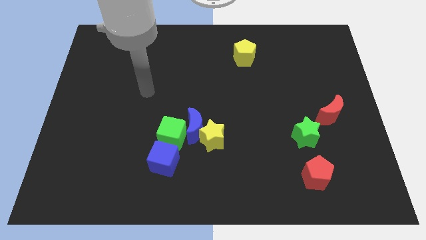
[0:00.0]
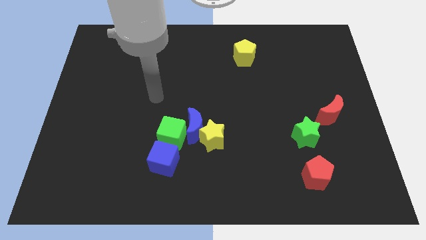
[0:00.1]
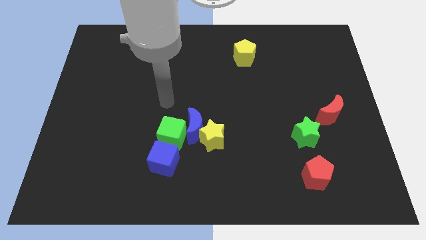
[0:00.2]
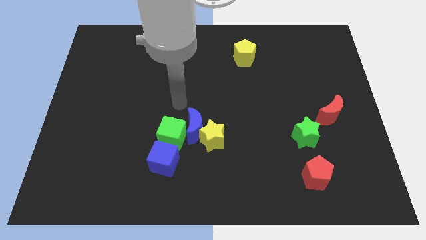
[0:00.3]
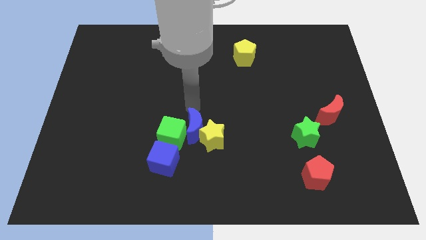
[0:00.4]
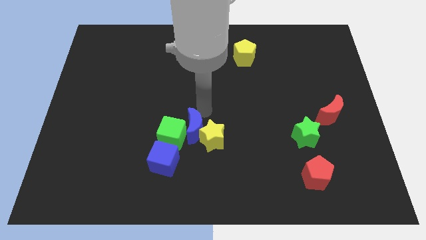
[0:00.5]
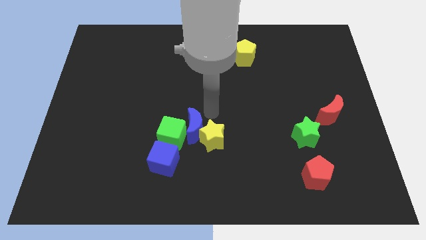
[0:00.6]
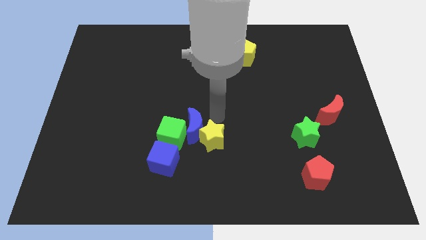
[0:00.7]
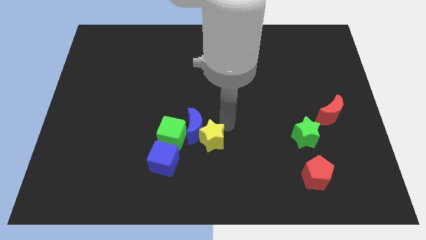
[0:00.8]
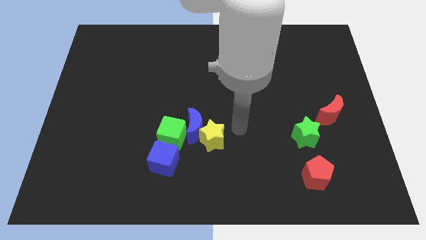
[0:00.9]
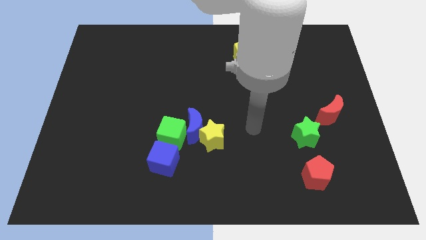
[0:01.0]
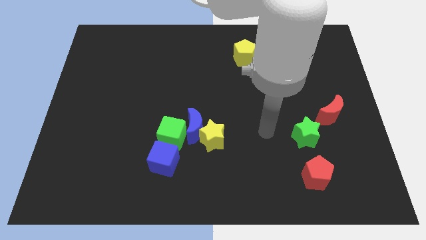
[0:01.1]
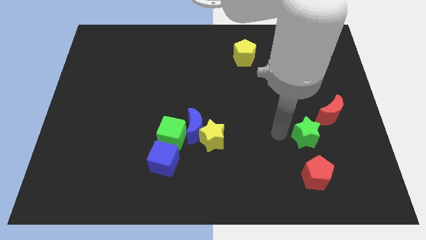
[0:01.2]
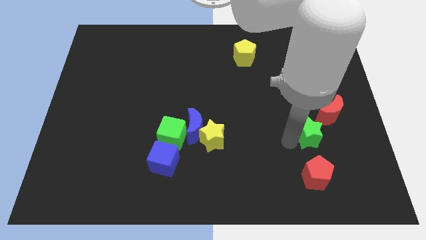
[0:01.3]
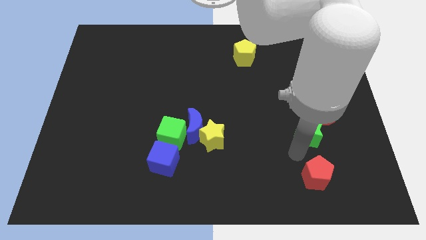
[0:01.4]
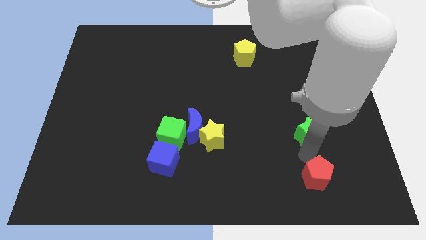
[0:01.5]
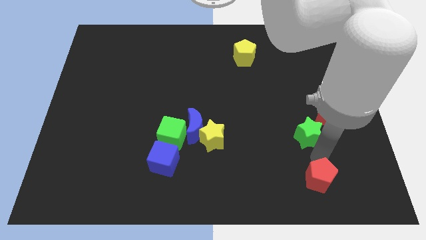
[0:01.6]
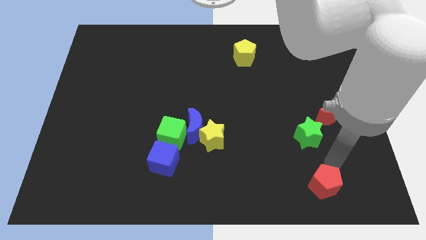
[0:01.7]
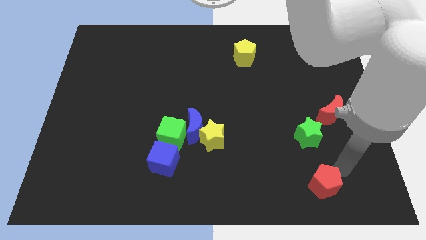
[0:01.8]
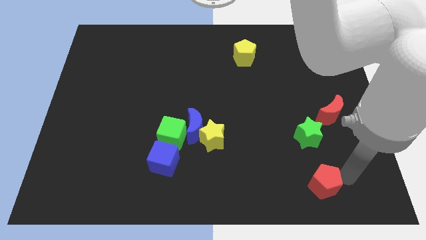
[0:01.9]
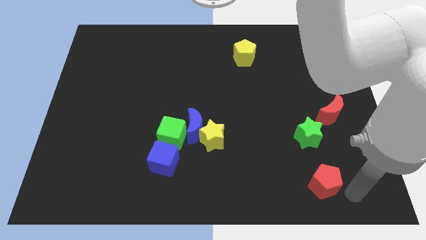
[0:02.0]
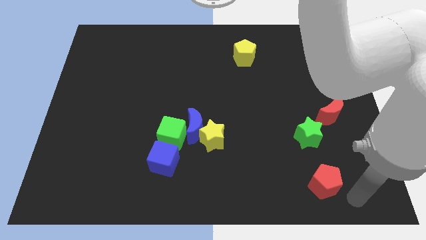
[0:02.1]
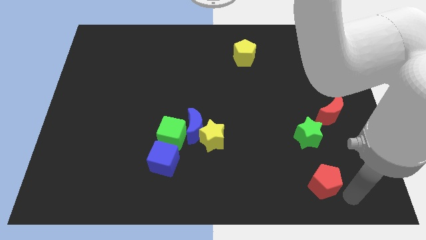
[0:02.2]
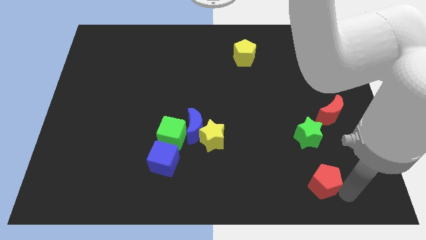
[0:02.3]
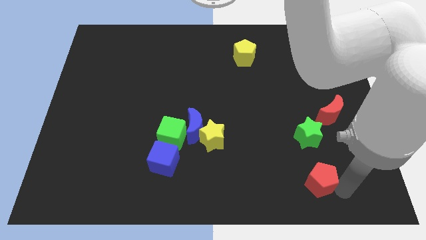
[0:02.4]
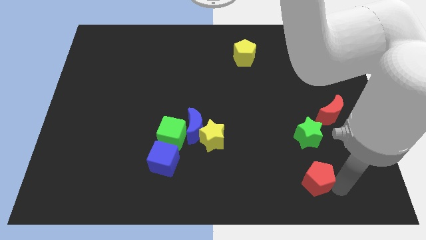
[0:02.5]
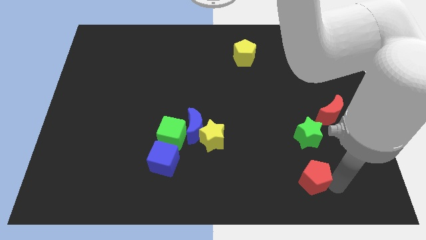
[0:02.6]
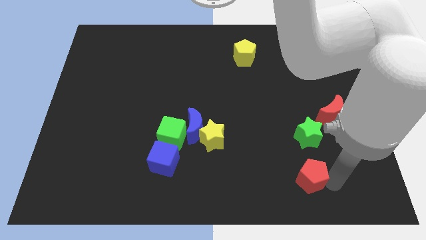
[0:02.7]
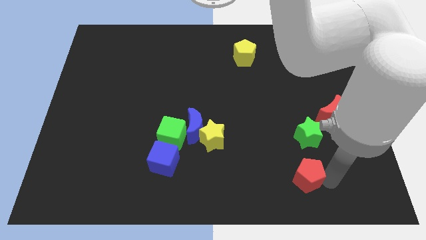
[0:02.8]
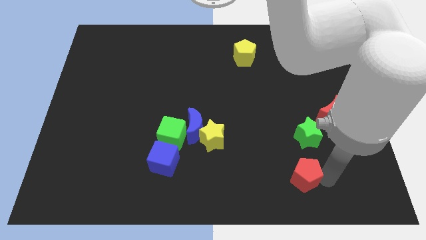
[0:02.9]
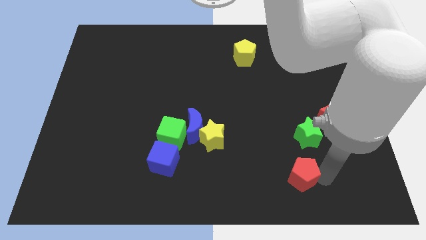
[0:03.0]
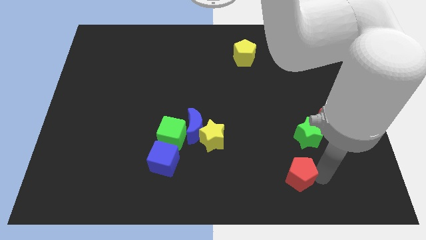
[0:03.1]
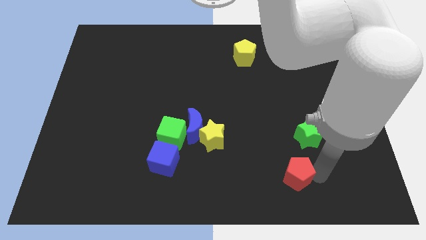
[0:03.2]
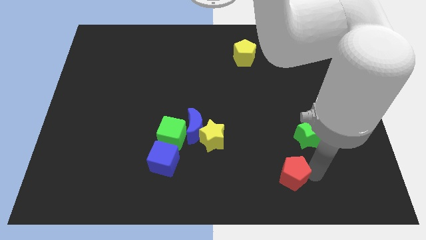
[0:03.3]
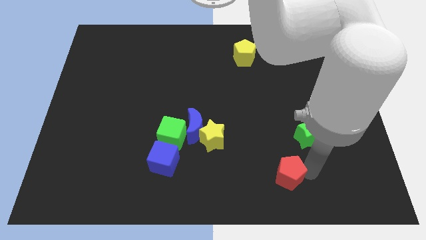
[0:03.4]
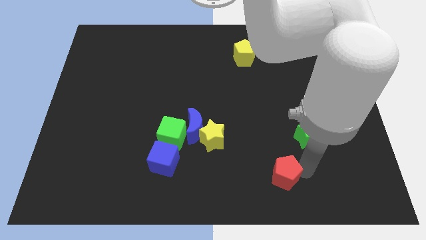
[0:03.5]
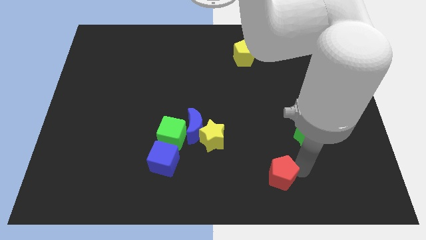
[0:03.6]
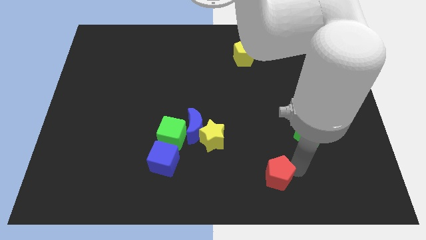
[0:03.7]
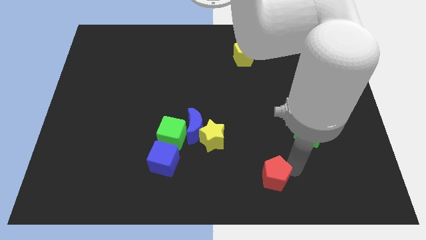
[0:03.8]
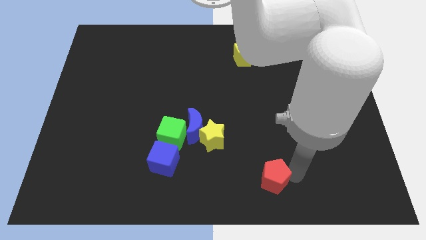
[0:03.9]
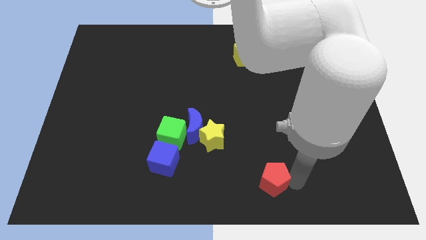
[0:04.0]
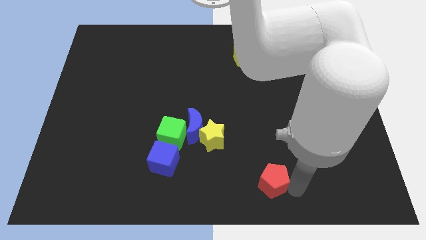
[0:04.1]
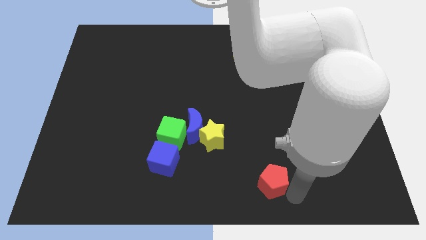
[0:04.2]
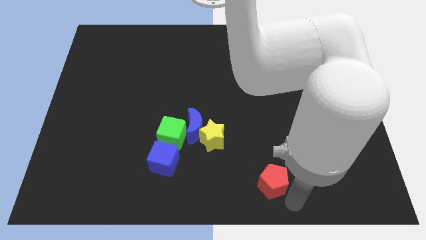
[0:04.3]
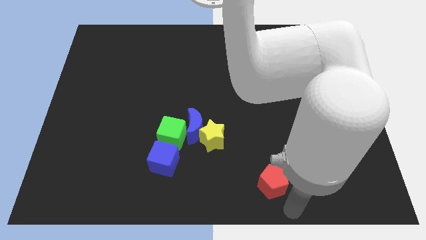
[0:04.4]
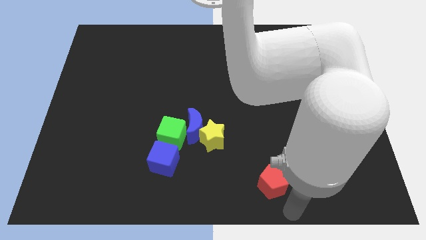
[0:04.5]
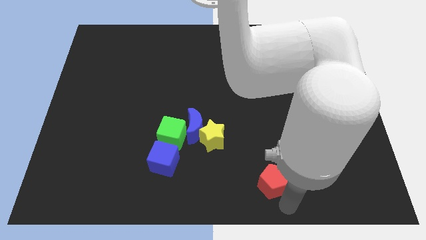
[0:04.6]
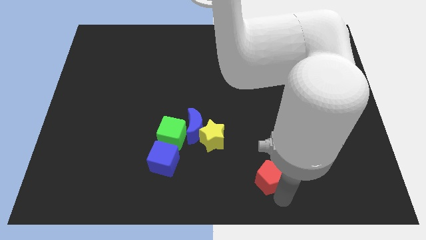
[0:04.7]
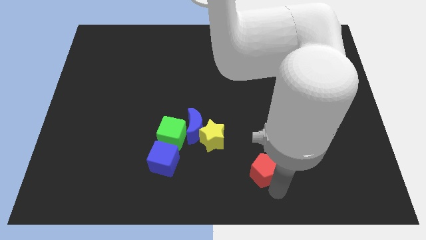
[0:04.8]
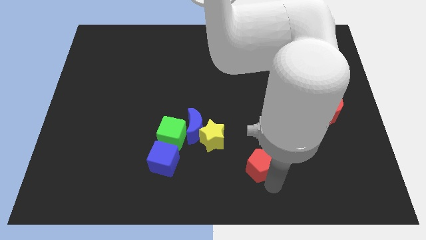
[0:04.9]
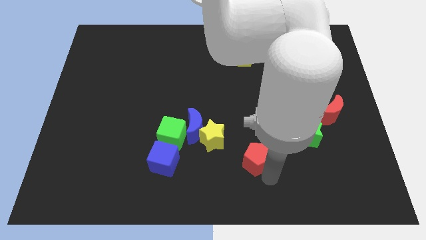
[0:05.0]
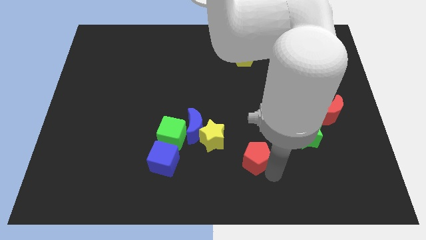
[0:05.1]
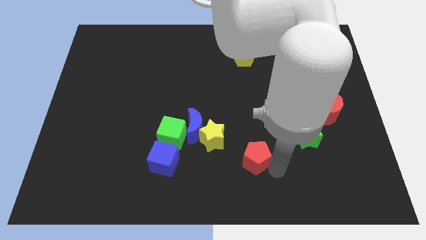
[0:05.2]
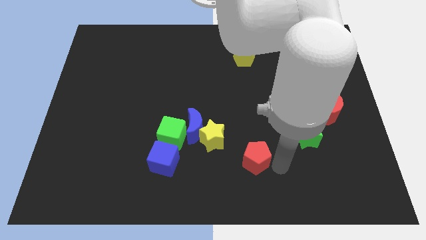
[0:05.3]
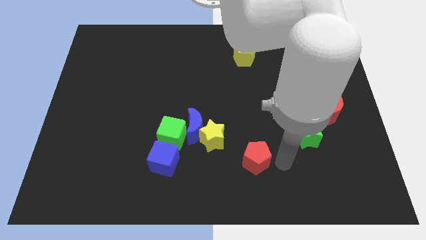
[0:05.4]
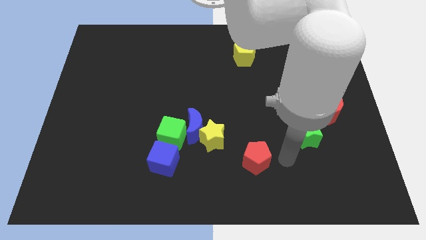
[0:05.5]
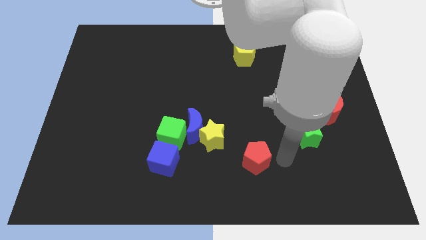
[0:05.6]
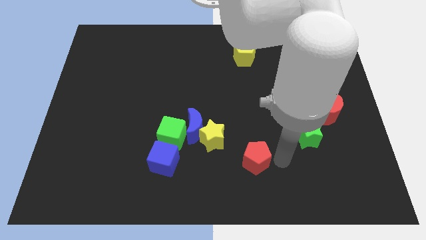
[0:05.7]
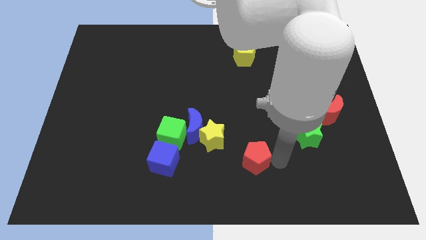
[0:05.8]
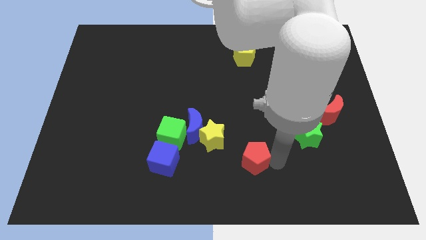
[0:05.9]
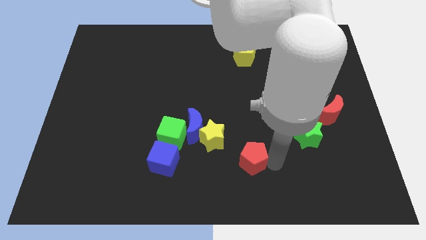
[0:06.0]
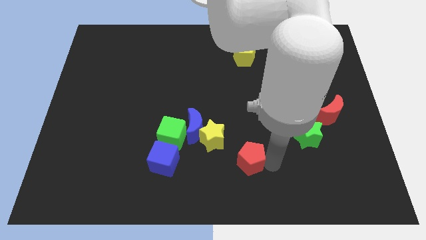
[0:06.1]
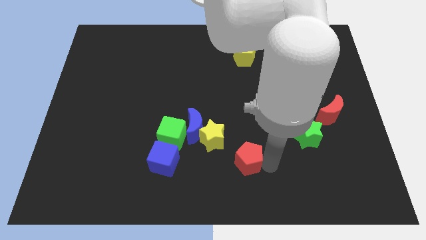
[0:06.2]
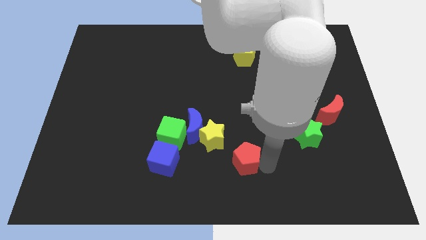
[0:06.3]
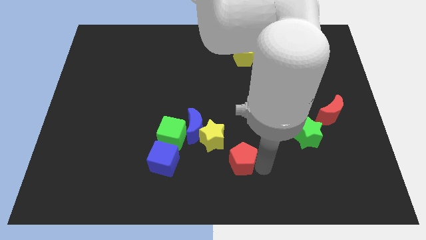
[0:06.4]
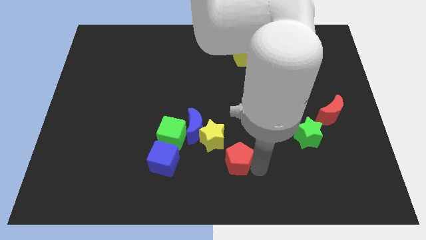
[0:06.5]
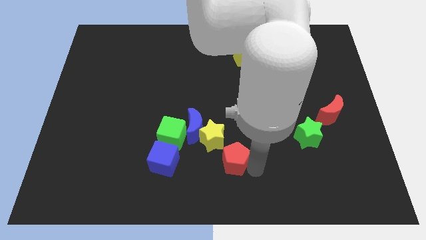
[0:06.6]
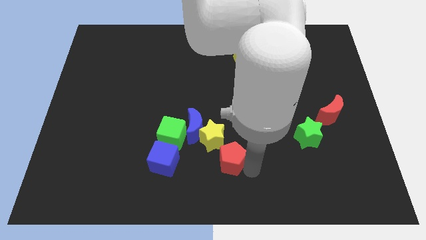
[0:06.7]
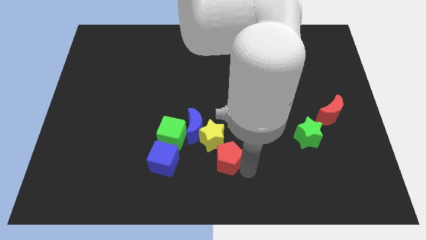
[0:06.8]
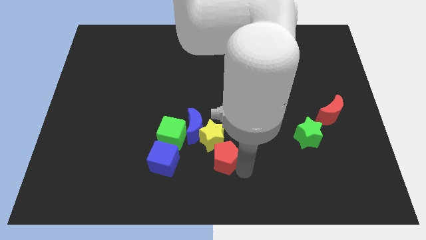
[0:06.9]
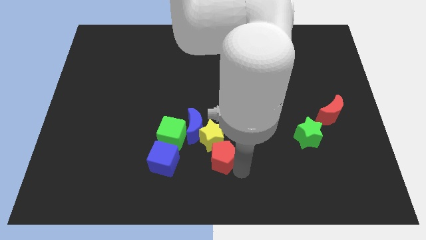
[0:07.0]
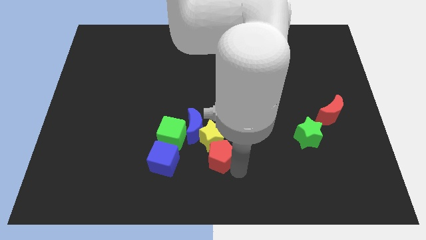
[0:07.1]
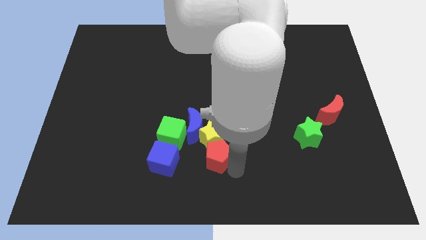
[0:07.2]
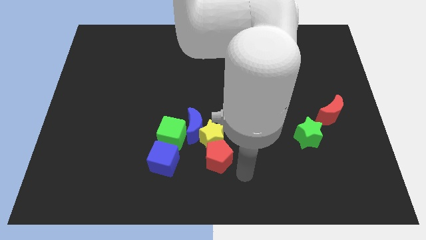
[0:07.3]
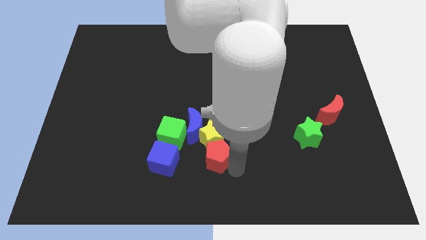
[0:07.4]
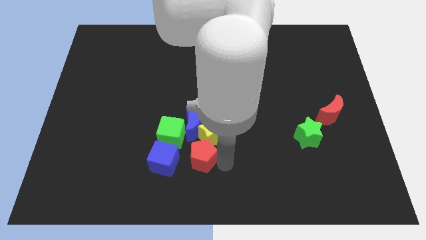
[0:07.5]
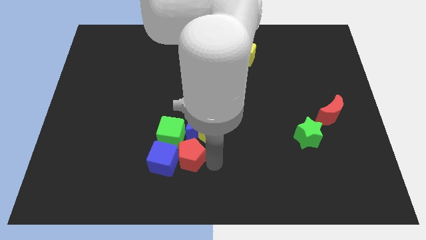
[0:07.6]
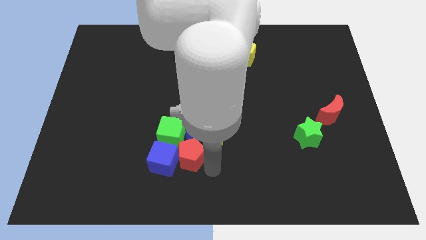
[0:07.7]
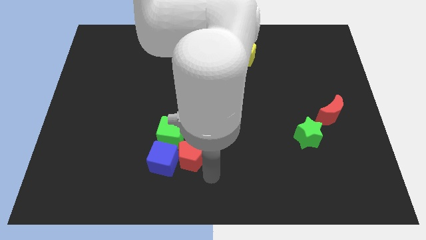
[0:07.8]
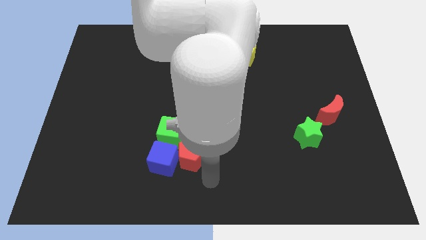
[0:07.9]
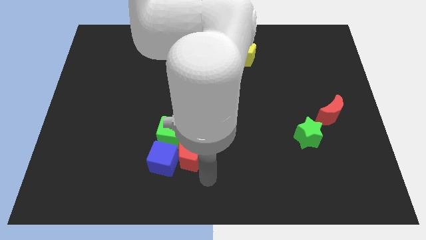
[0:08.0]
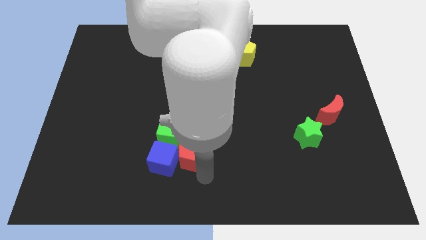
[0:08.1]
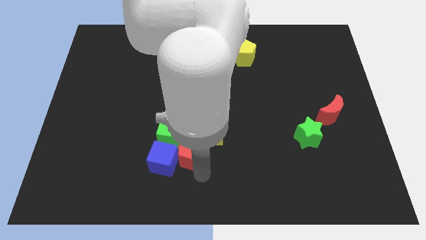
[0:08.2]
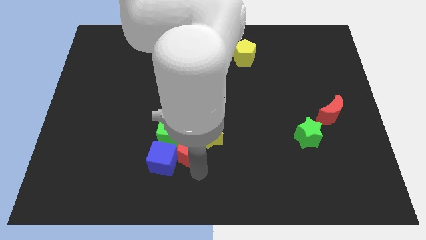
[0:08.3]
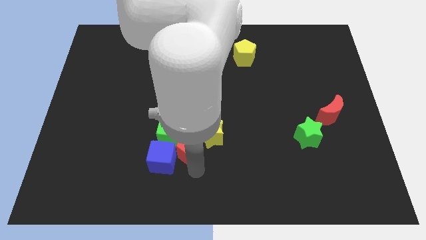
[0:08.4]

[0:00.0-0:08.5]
put the red pentagon next to the green cube
